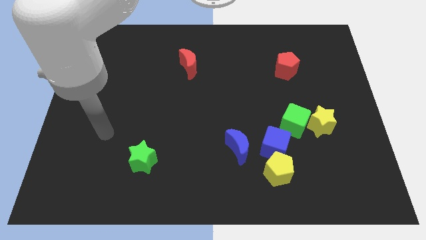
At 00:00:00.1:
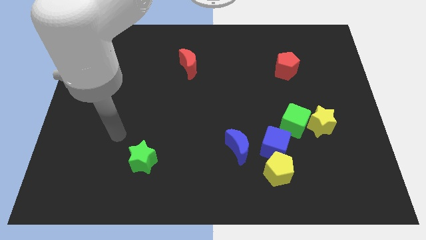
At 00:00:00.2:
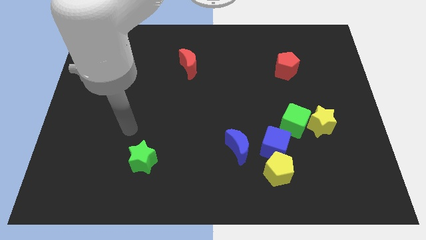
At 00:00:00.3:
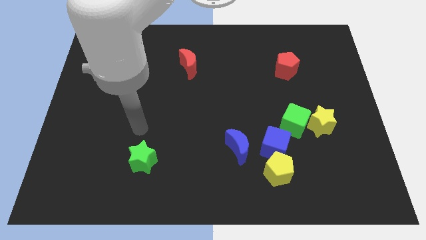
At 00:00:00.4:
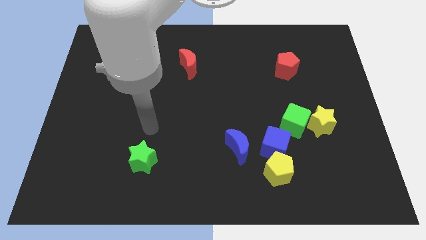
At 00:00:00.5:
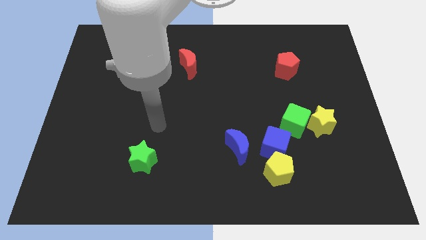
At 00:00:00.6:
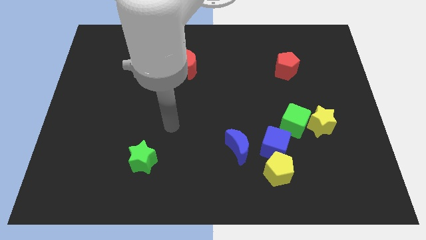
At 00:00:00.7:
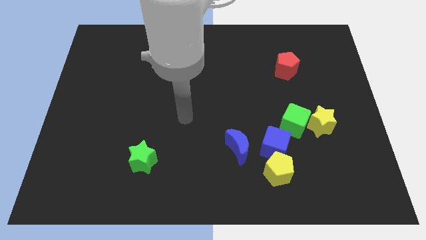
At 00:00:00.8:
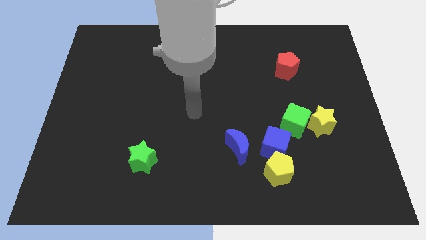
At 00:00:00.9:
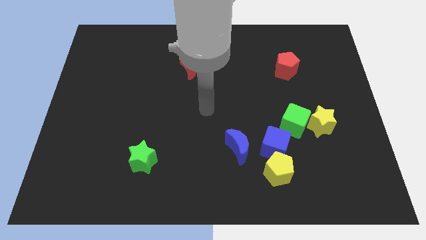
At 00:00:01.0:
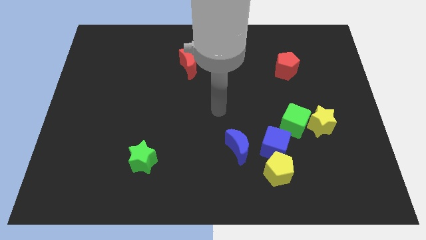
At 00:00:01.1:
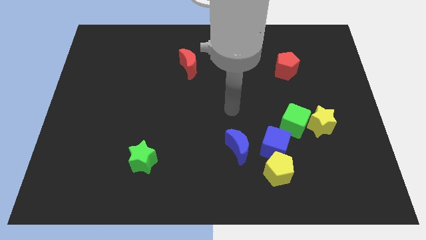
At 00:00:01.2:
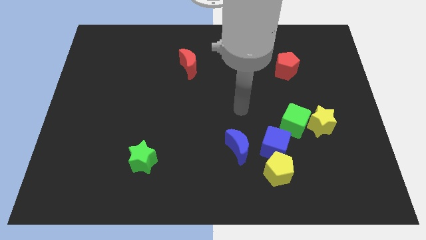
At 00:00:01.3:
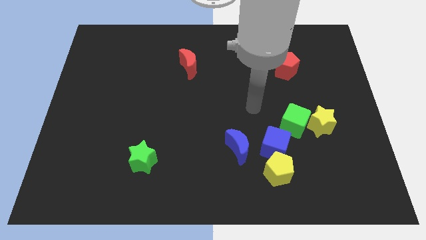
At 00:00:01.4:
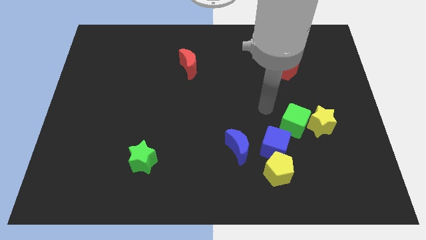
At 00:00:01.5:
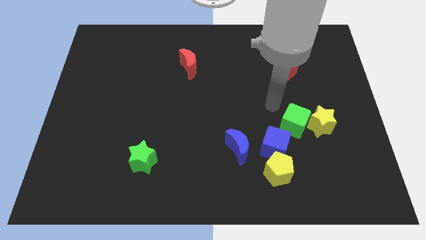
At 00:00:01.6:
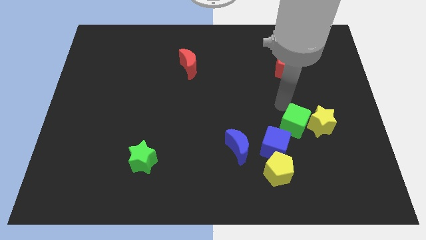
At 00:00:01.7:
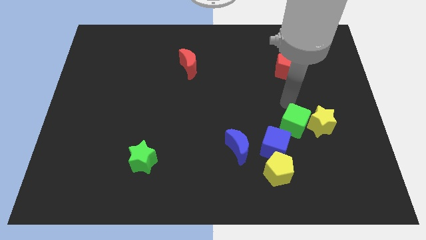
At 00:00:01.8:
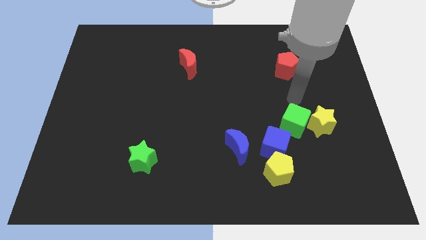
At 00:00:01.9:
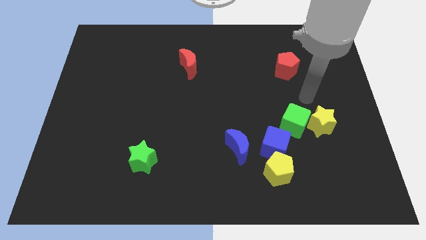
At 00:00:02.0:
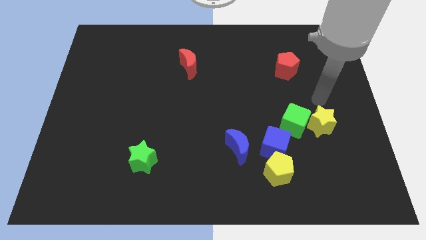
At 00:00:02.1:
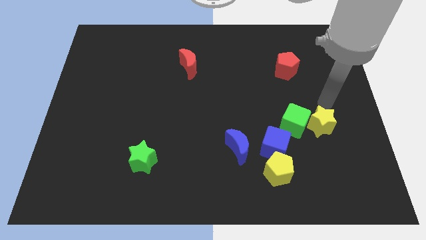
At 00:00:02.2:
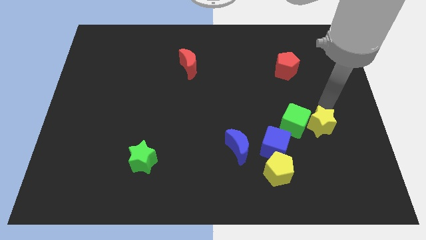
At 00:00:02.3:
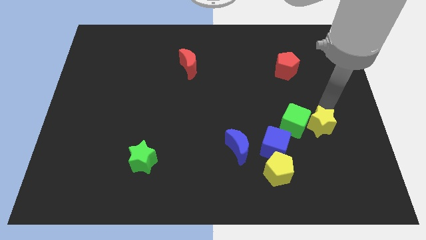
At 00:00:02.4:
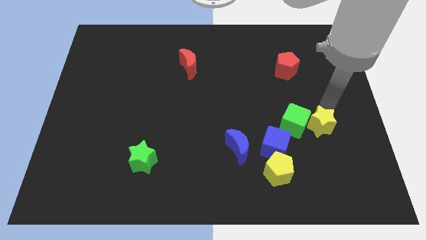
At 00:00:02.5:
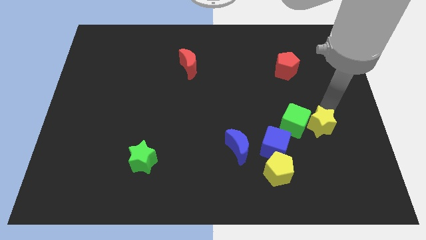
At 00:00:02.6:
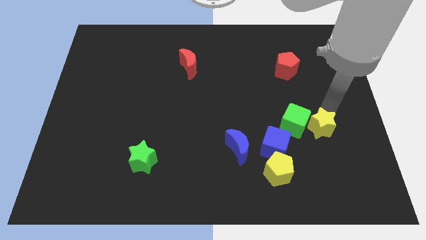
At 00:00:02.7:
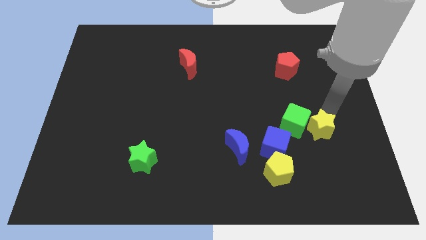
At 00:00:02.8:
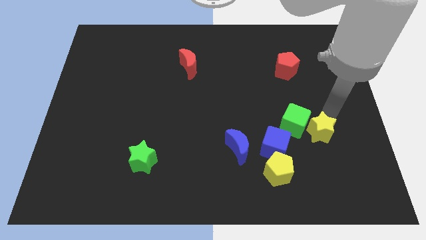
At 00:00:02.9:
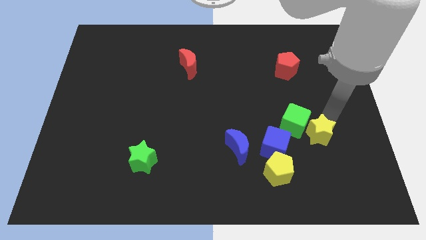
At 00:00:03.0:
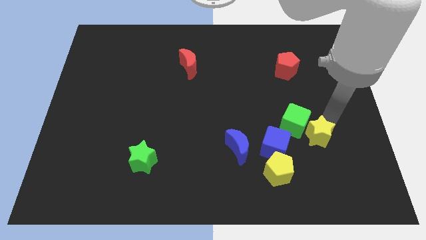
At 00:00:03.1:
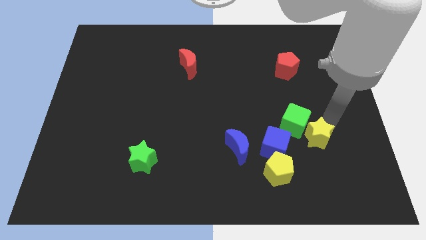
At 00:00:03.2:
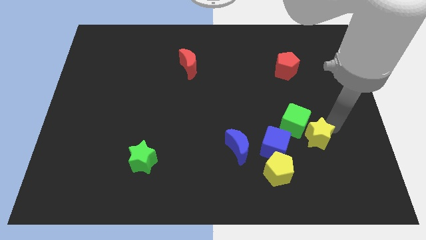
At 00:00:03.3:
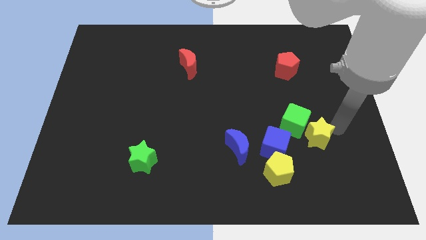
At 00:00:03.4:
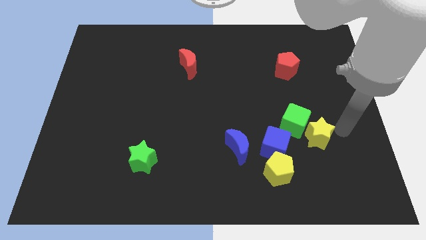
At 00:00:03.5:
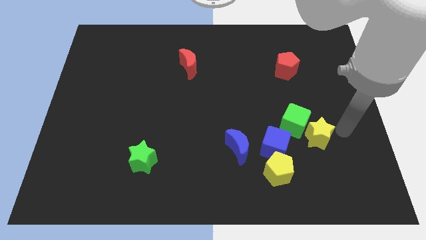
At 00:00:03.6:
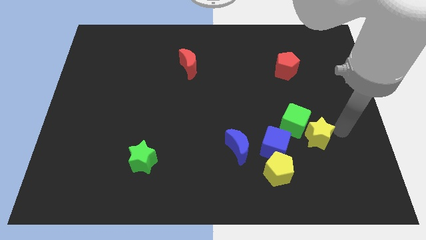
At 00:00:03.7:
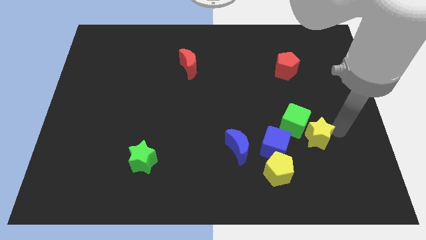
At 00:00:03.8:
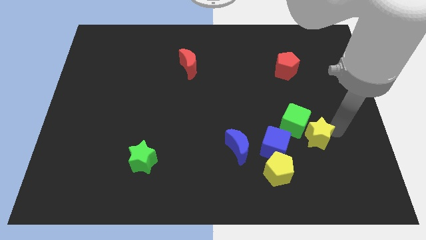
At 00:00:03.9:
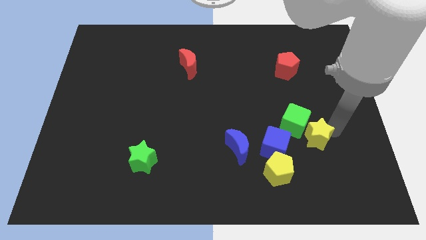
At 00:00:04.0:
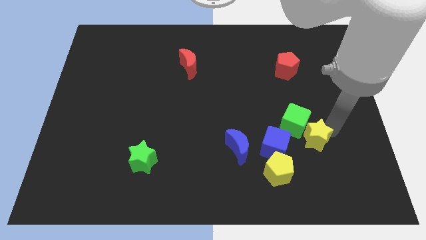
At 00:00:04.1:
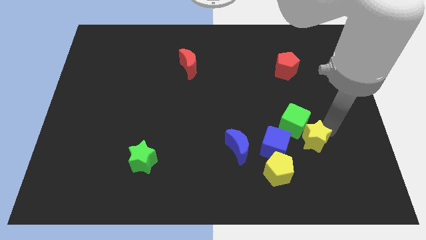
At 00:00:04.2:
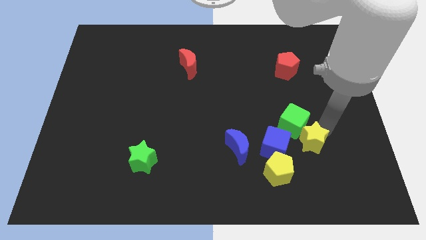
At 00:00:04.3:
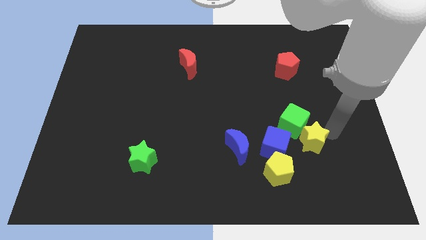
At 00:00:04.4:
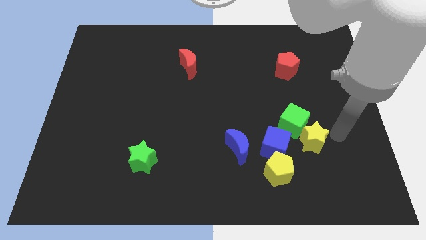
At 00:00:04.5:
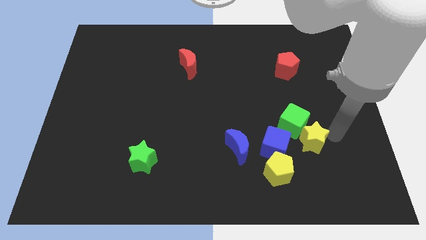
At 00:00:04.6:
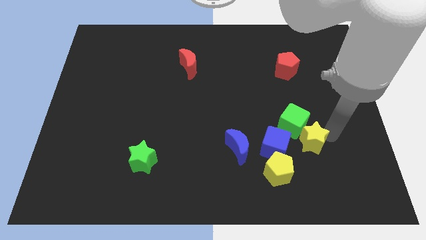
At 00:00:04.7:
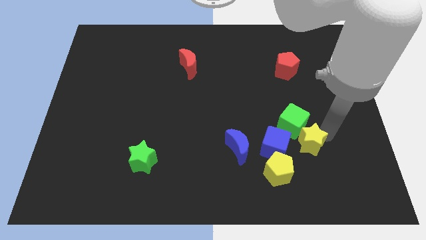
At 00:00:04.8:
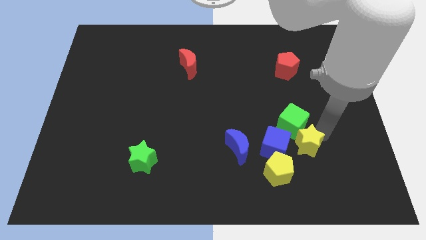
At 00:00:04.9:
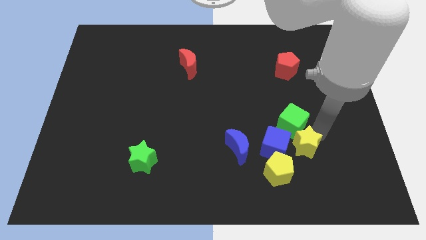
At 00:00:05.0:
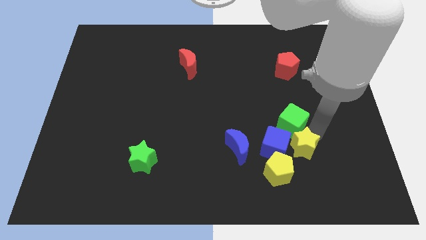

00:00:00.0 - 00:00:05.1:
slide the yellow star close to the blue cube

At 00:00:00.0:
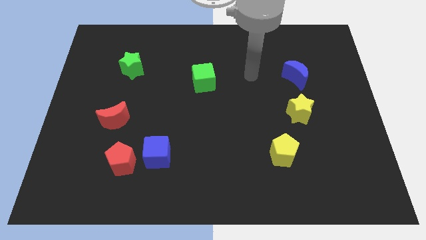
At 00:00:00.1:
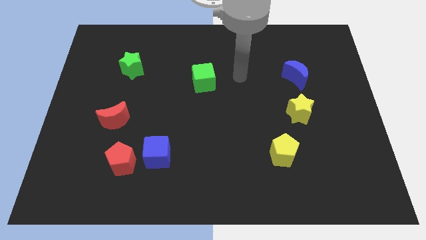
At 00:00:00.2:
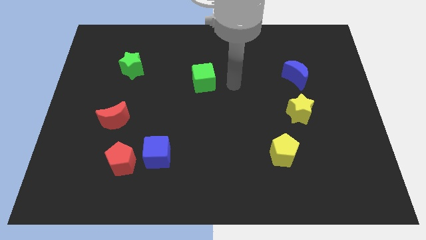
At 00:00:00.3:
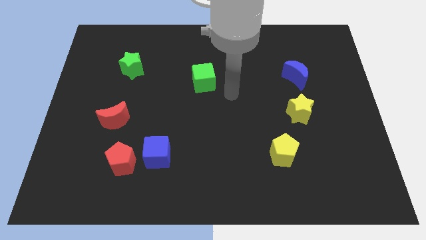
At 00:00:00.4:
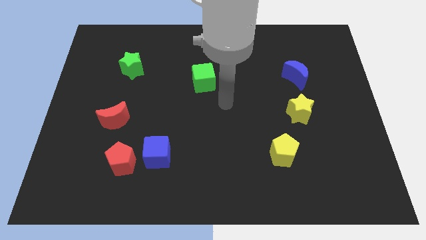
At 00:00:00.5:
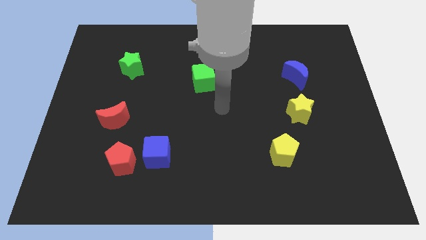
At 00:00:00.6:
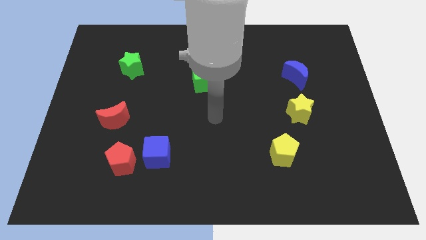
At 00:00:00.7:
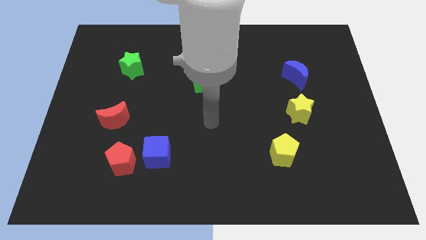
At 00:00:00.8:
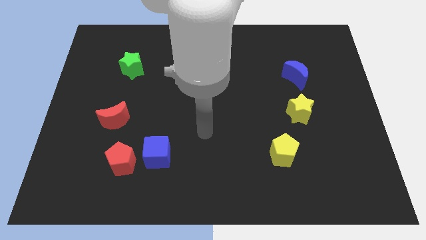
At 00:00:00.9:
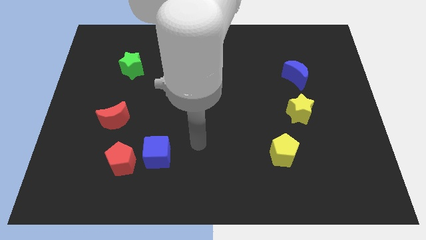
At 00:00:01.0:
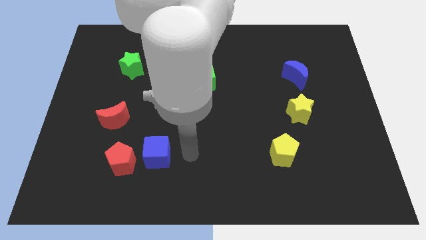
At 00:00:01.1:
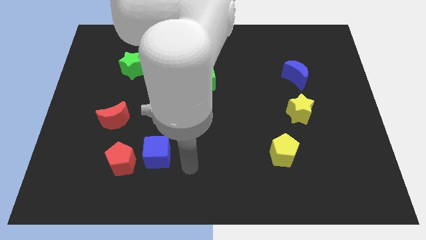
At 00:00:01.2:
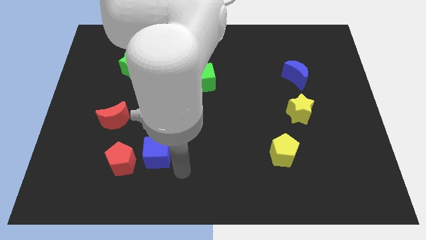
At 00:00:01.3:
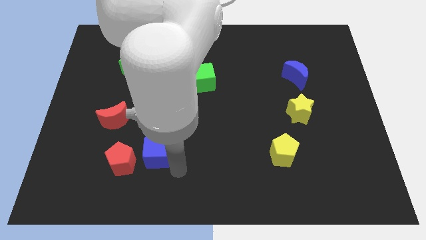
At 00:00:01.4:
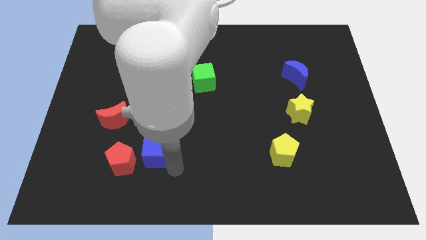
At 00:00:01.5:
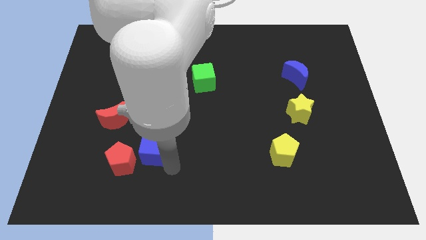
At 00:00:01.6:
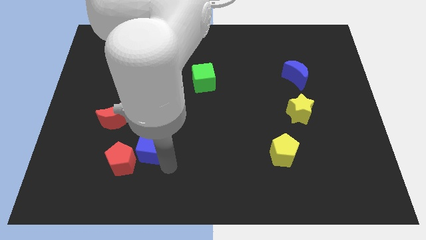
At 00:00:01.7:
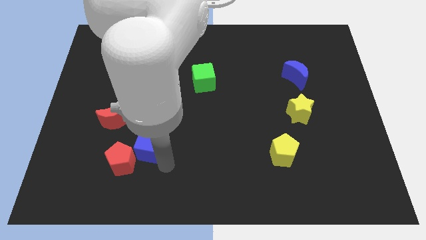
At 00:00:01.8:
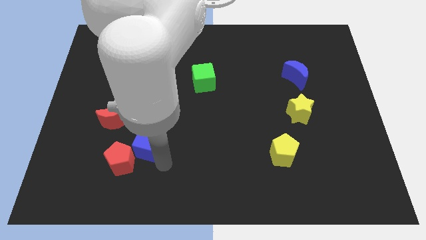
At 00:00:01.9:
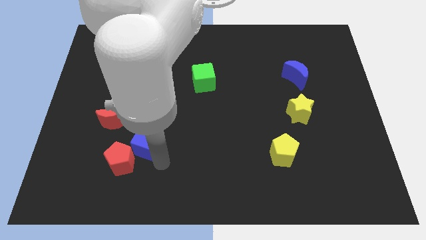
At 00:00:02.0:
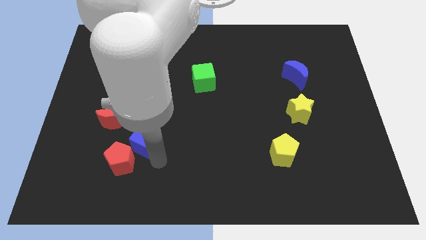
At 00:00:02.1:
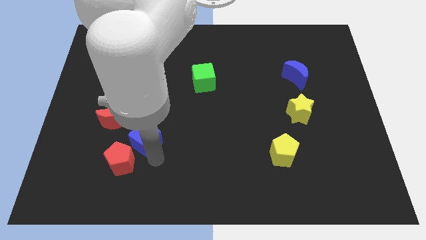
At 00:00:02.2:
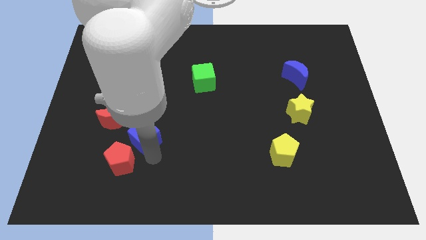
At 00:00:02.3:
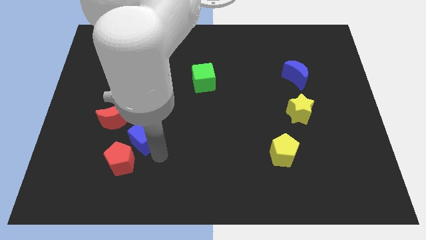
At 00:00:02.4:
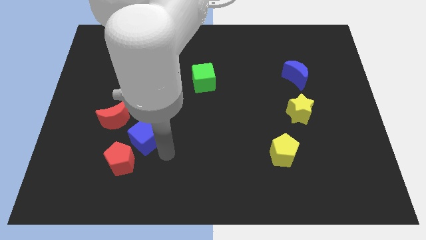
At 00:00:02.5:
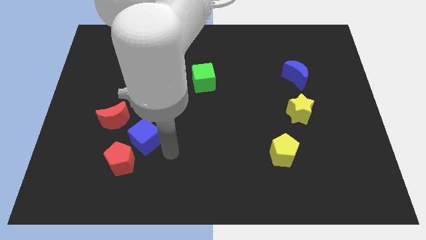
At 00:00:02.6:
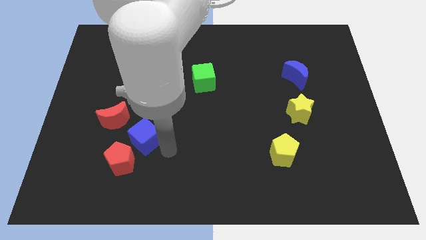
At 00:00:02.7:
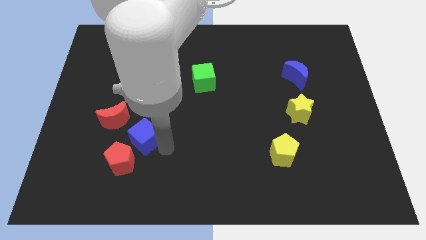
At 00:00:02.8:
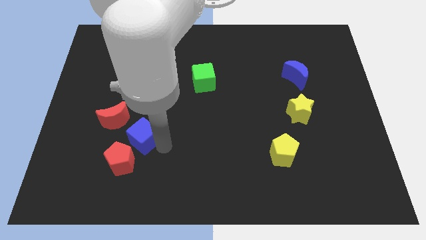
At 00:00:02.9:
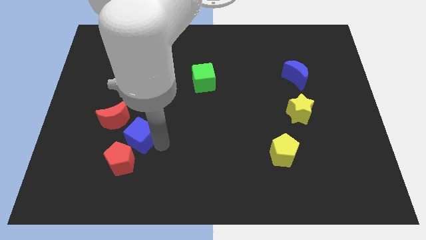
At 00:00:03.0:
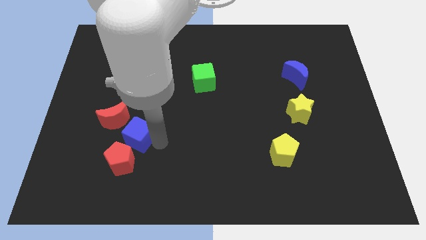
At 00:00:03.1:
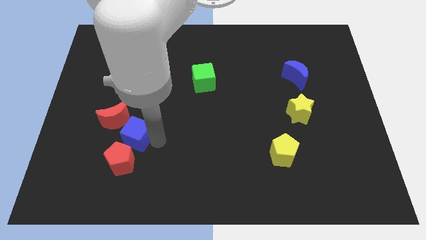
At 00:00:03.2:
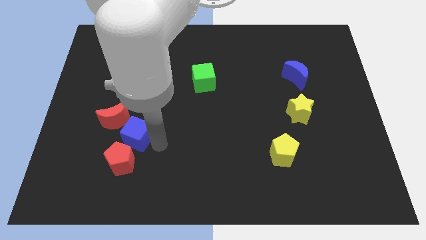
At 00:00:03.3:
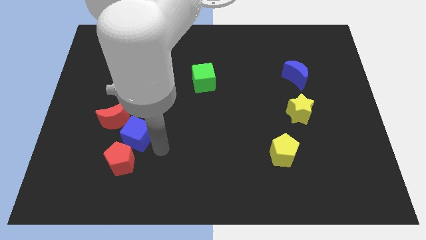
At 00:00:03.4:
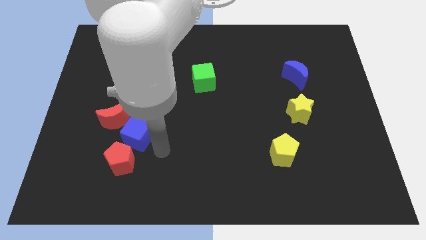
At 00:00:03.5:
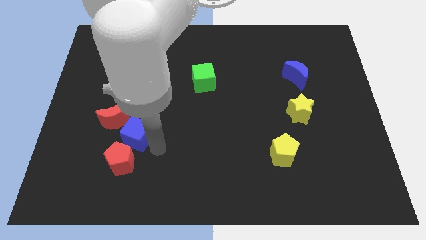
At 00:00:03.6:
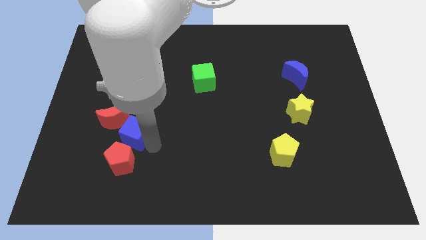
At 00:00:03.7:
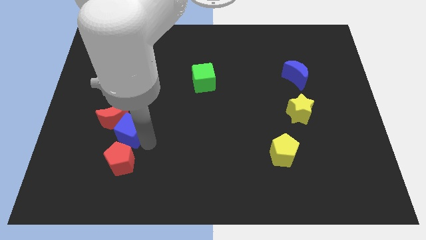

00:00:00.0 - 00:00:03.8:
slide the blue cube towards the red moon
